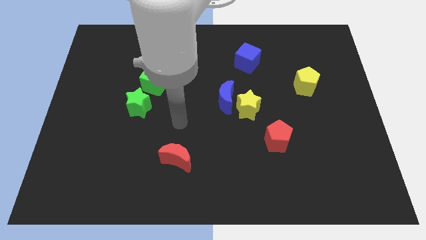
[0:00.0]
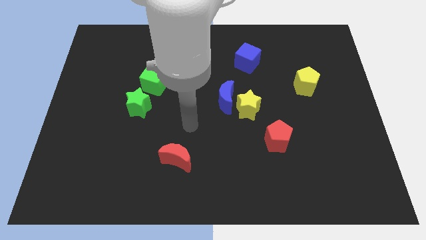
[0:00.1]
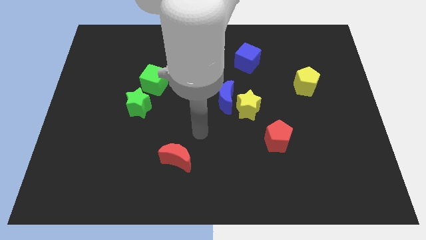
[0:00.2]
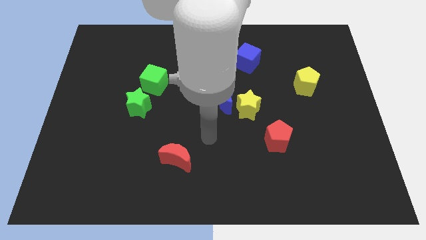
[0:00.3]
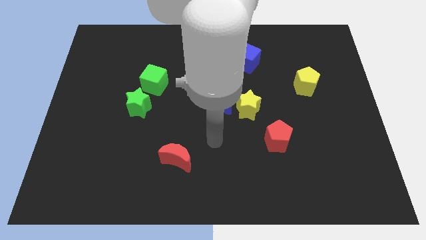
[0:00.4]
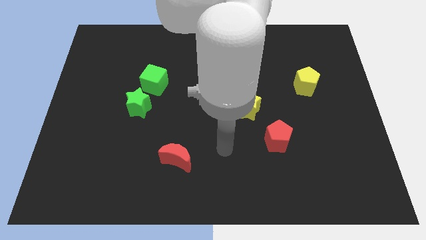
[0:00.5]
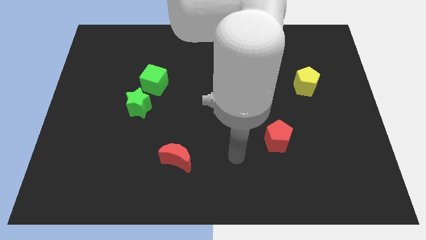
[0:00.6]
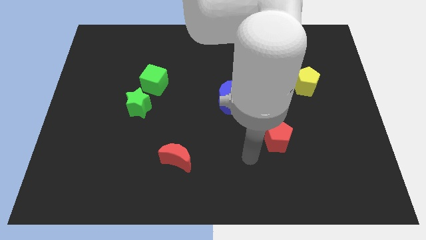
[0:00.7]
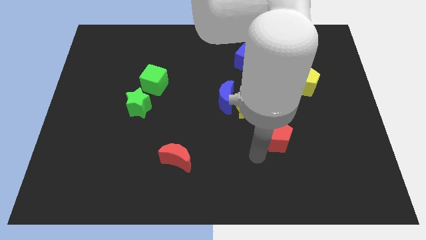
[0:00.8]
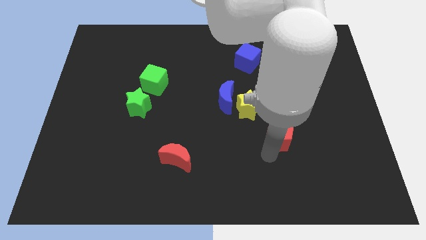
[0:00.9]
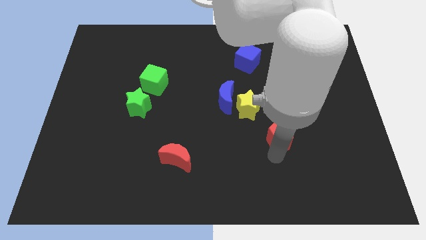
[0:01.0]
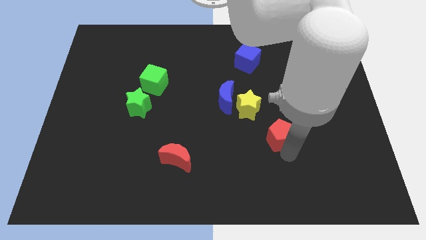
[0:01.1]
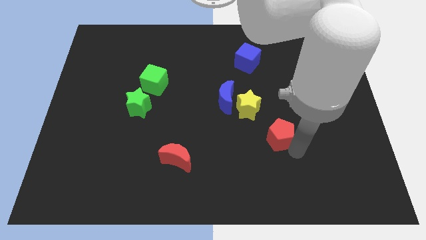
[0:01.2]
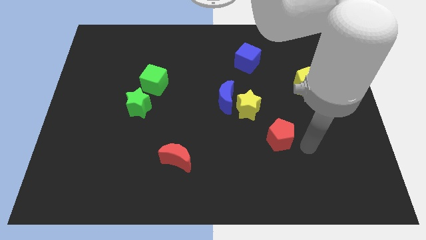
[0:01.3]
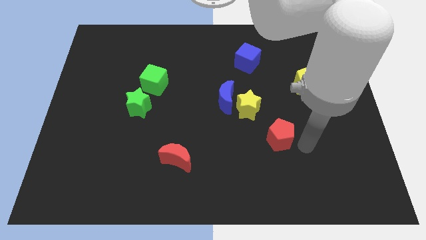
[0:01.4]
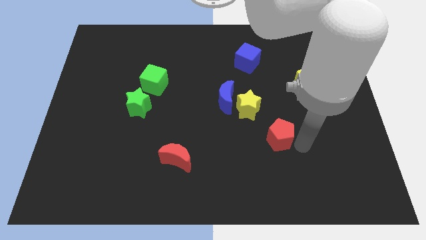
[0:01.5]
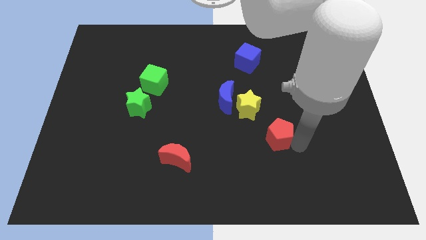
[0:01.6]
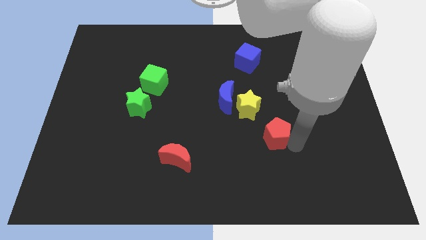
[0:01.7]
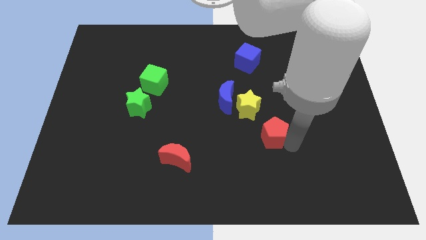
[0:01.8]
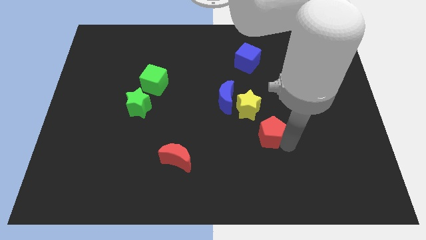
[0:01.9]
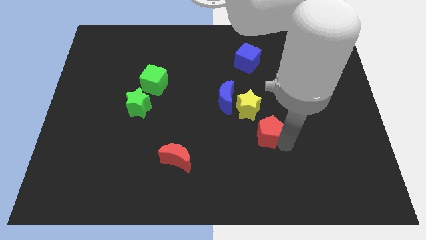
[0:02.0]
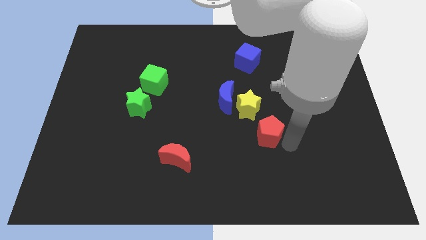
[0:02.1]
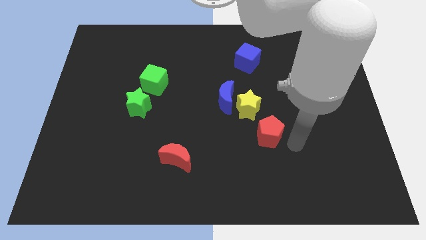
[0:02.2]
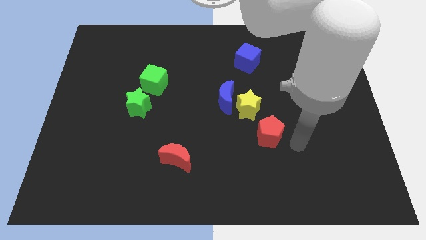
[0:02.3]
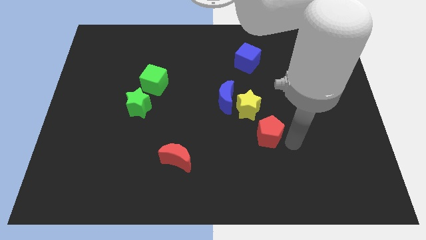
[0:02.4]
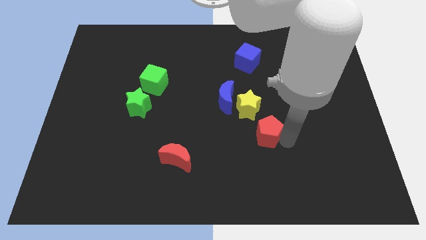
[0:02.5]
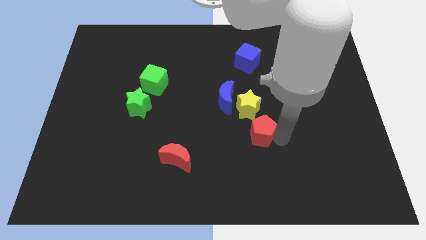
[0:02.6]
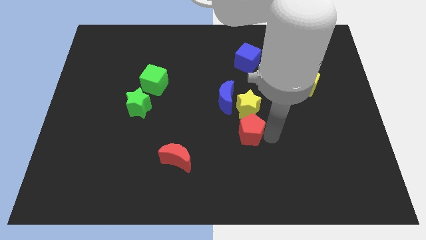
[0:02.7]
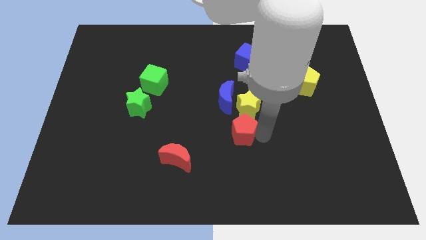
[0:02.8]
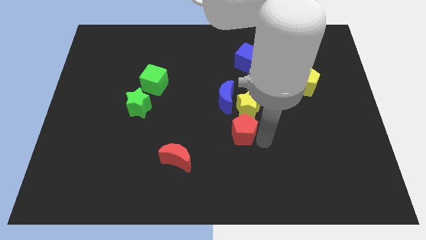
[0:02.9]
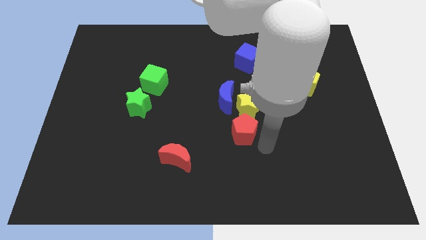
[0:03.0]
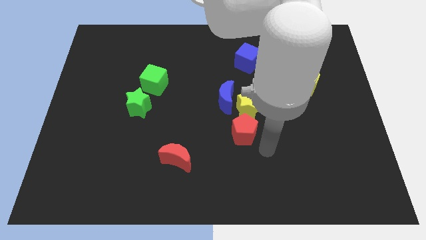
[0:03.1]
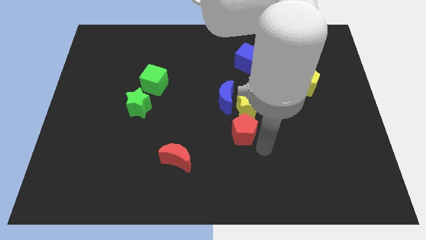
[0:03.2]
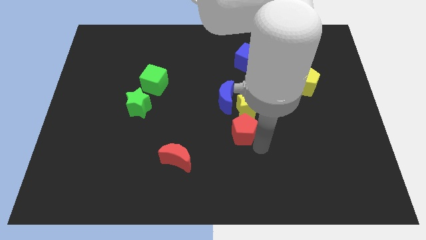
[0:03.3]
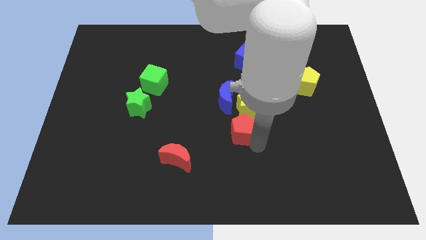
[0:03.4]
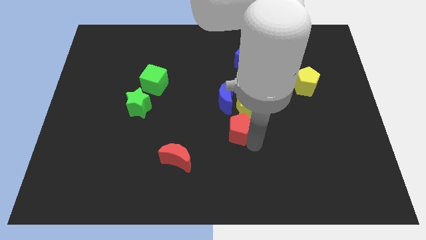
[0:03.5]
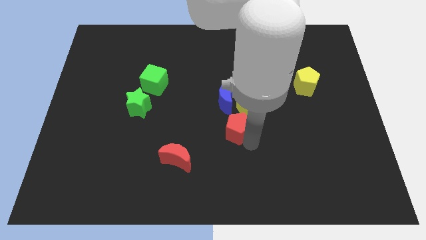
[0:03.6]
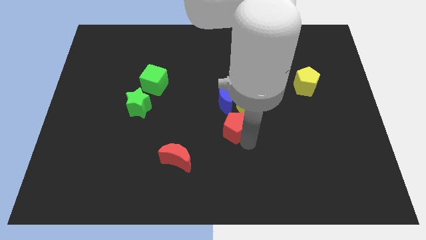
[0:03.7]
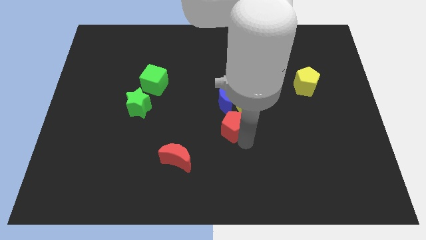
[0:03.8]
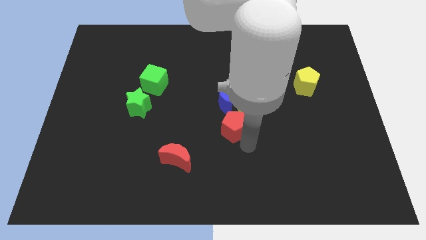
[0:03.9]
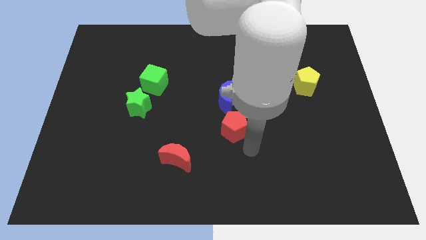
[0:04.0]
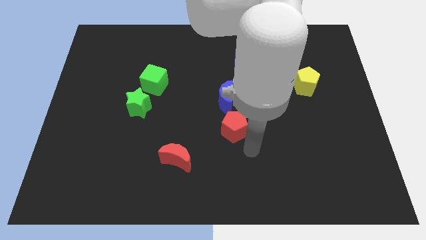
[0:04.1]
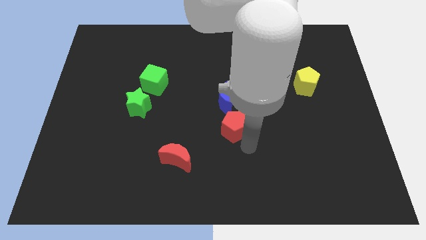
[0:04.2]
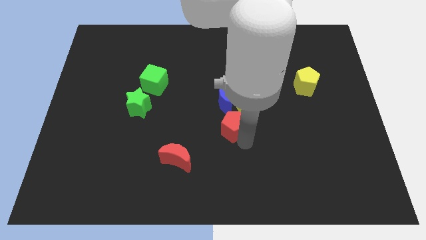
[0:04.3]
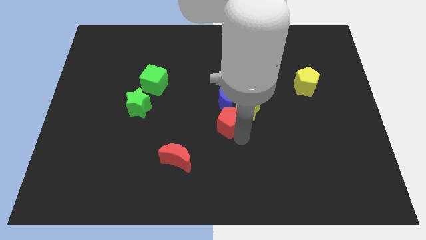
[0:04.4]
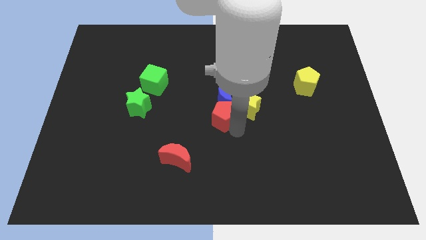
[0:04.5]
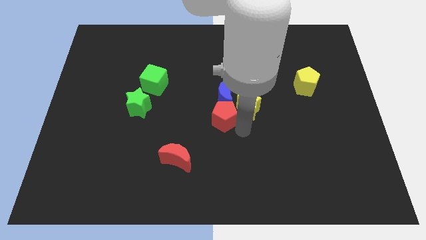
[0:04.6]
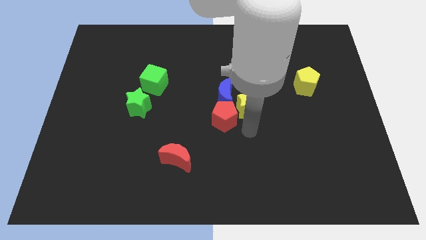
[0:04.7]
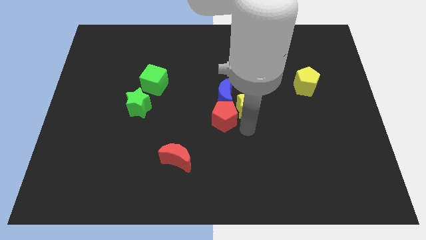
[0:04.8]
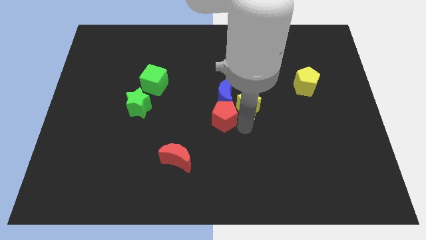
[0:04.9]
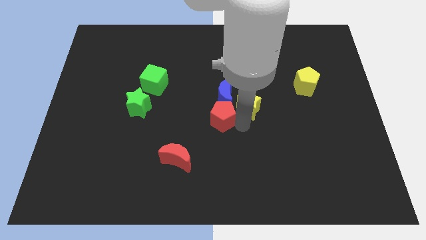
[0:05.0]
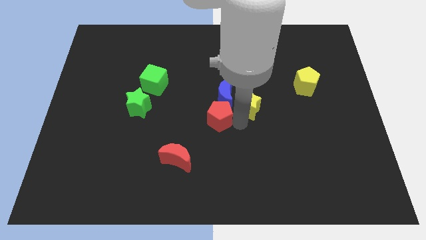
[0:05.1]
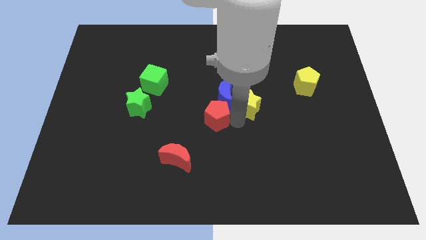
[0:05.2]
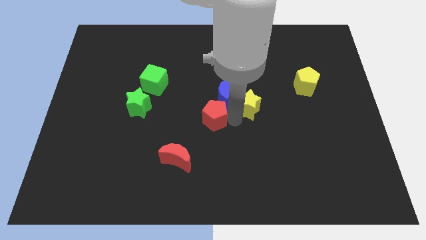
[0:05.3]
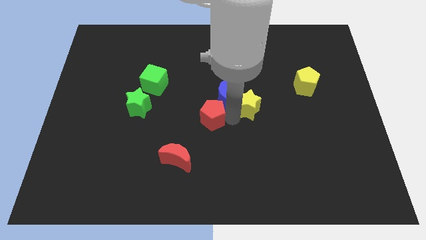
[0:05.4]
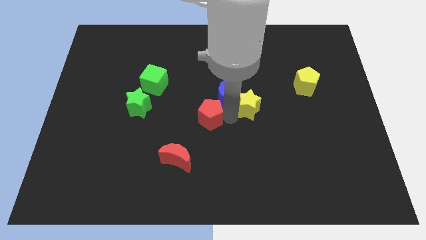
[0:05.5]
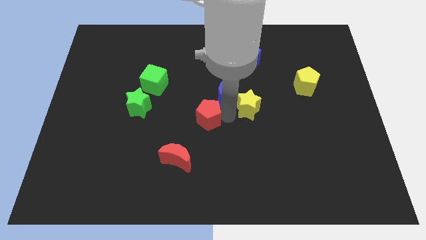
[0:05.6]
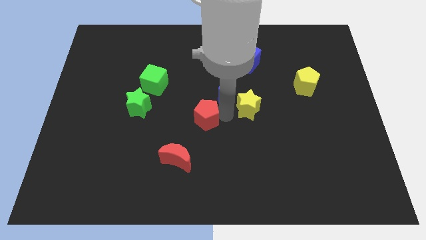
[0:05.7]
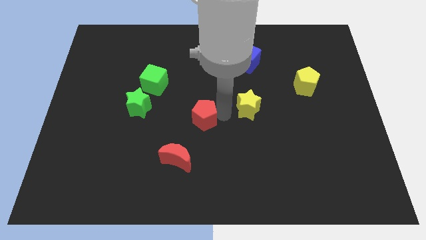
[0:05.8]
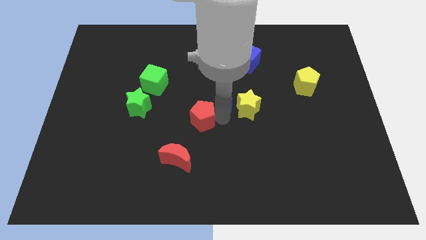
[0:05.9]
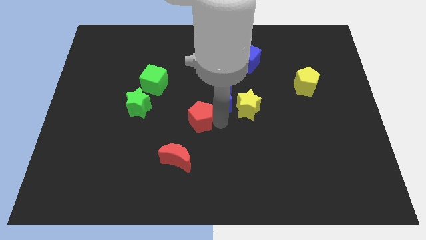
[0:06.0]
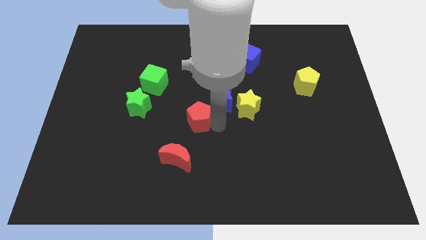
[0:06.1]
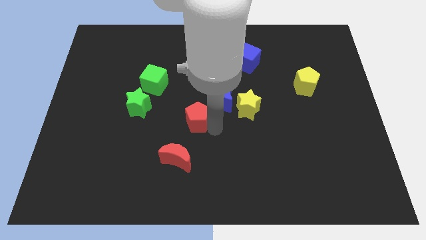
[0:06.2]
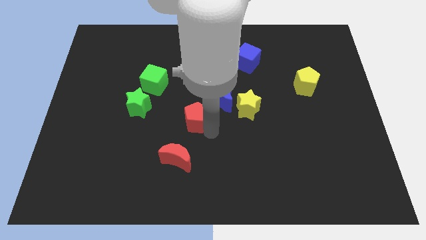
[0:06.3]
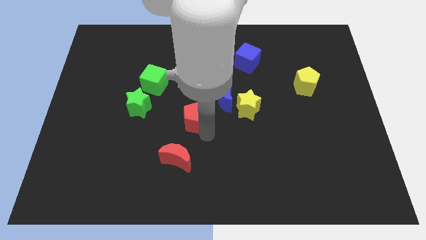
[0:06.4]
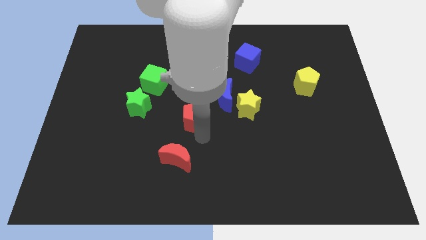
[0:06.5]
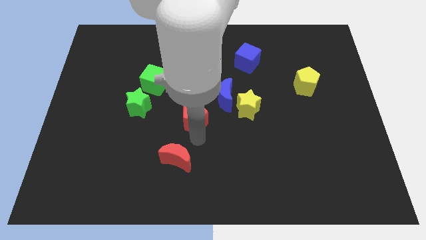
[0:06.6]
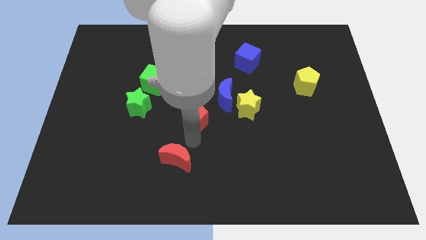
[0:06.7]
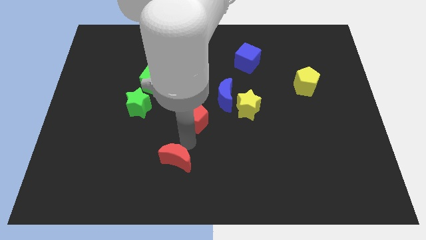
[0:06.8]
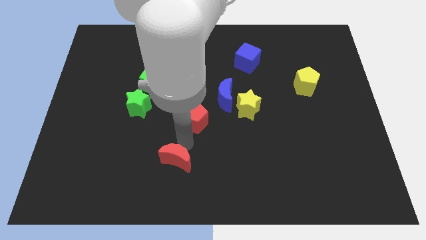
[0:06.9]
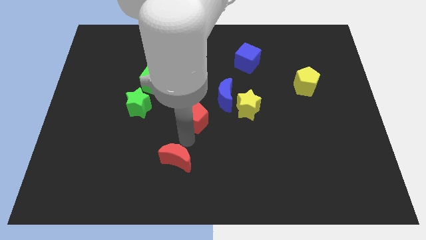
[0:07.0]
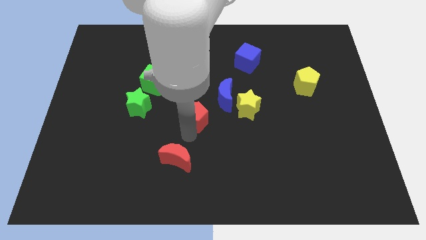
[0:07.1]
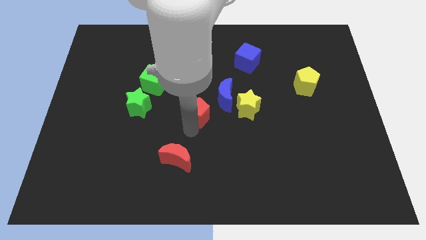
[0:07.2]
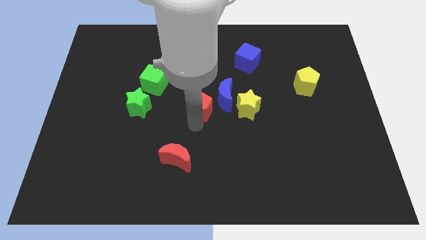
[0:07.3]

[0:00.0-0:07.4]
move the red pentagon just left of the blue moon
